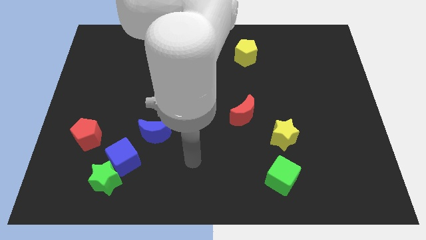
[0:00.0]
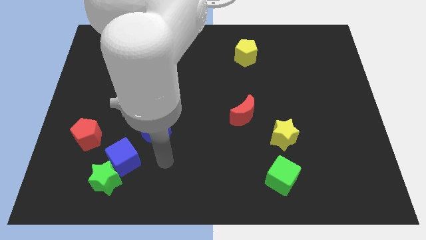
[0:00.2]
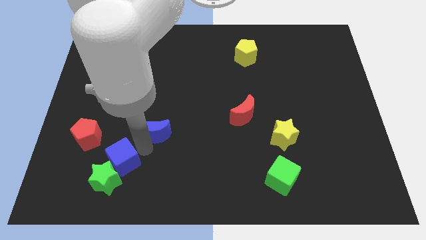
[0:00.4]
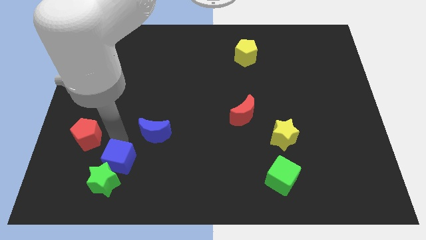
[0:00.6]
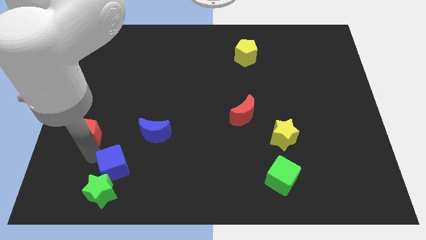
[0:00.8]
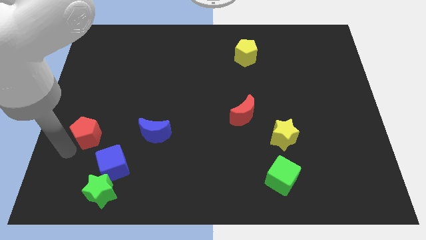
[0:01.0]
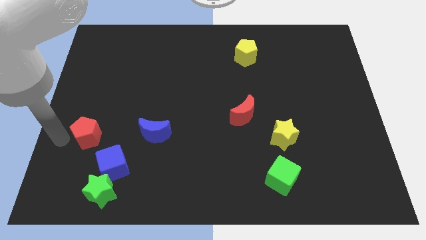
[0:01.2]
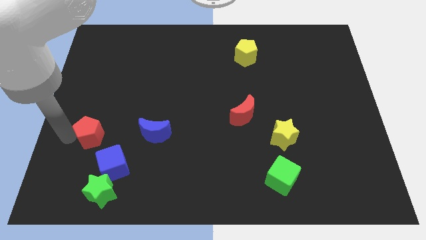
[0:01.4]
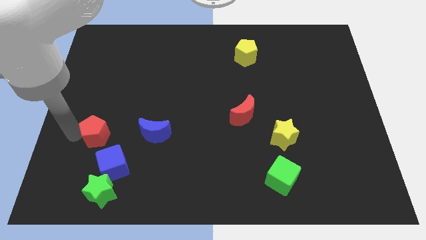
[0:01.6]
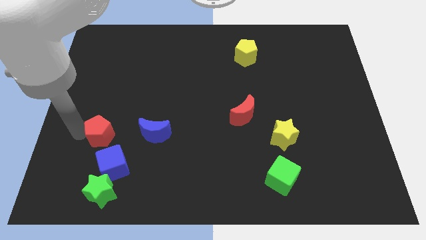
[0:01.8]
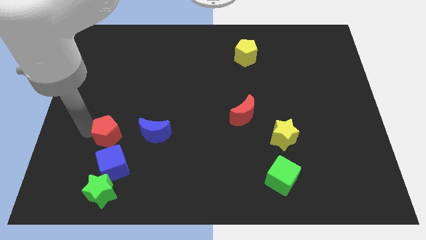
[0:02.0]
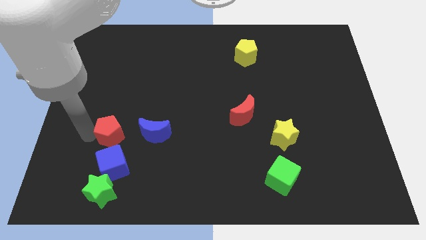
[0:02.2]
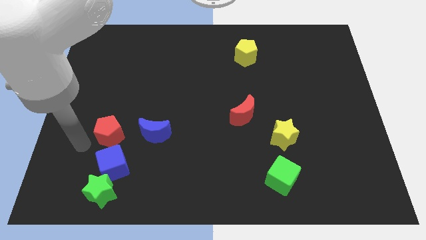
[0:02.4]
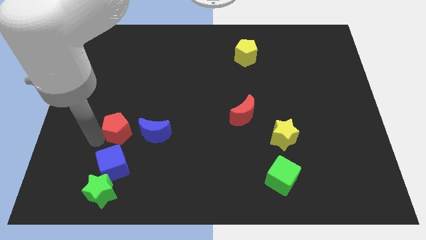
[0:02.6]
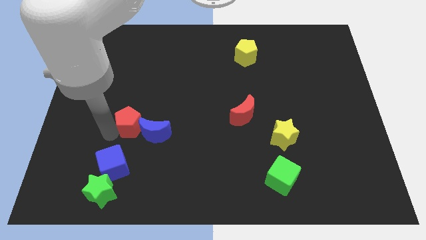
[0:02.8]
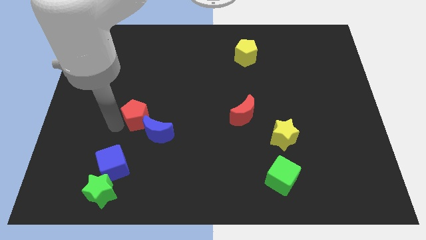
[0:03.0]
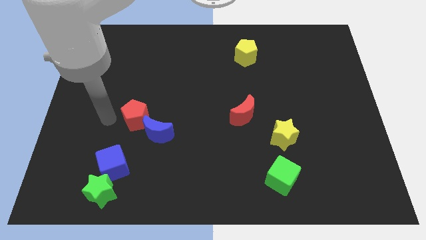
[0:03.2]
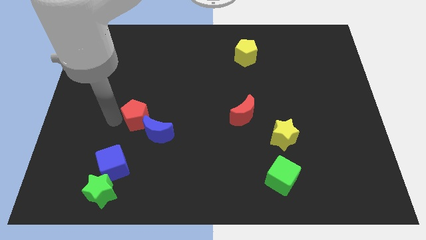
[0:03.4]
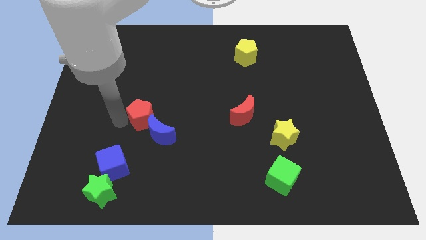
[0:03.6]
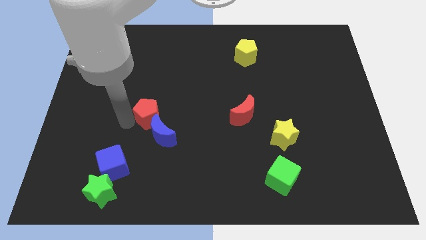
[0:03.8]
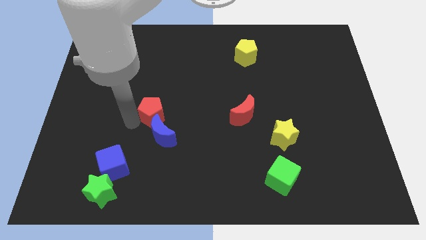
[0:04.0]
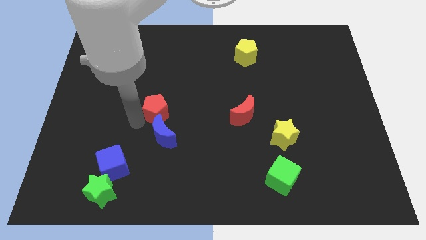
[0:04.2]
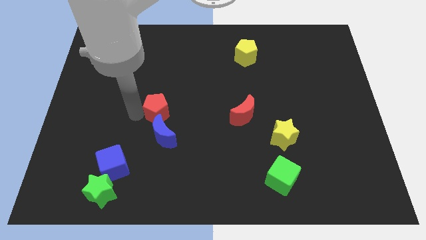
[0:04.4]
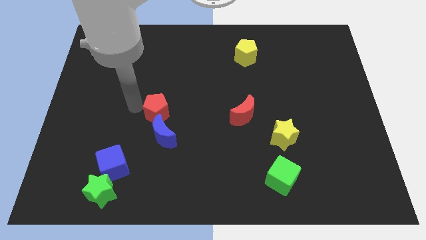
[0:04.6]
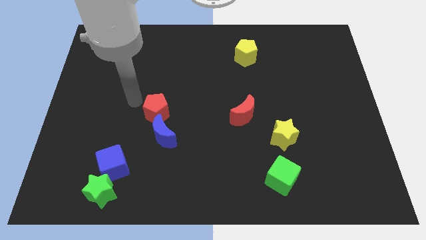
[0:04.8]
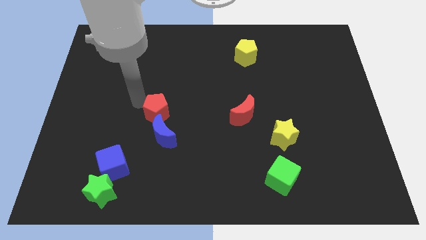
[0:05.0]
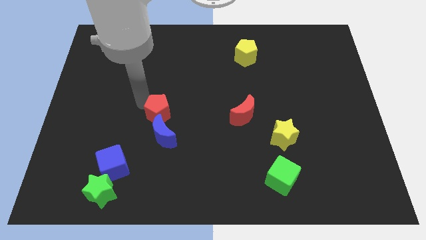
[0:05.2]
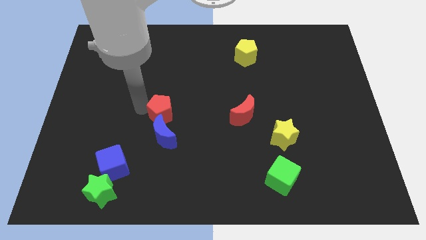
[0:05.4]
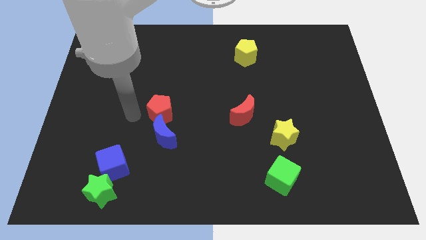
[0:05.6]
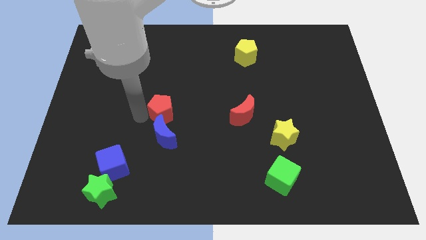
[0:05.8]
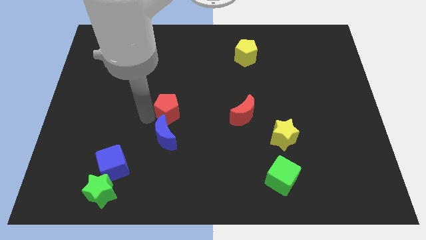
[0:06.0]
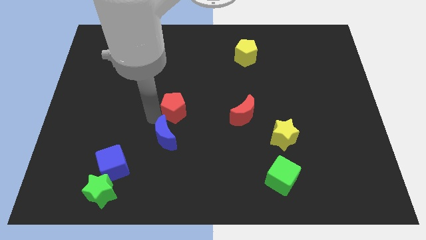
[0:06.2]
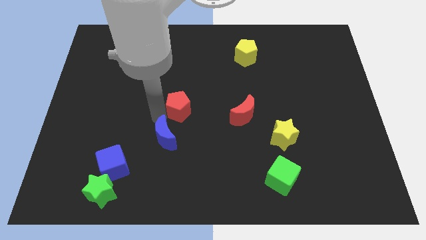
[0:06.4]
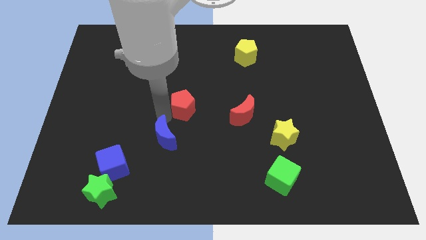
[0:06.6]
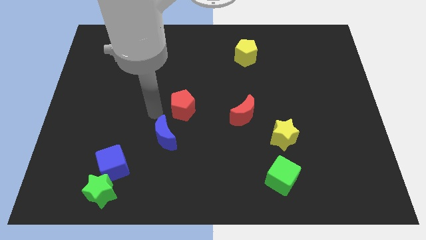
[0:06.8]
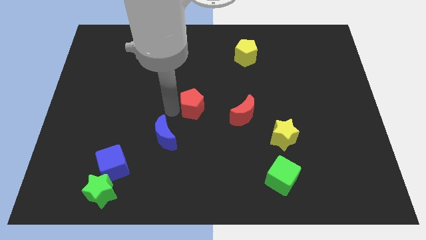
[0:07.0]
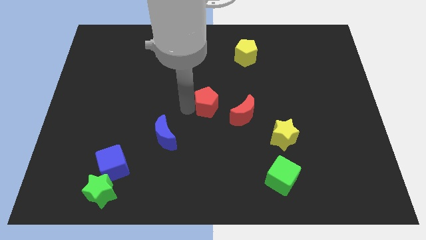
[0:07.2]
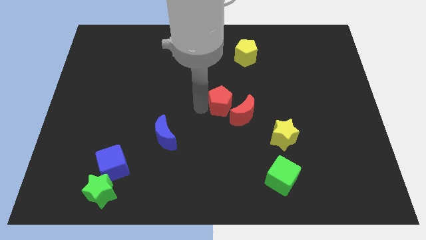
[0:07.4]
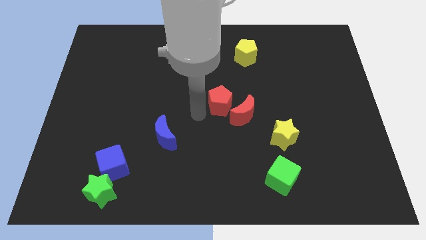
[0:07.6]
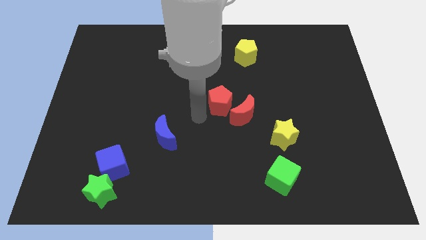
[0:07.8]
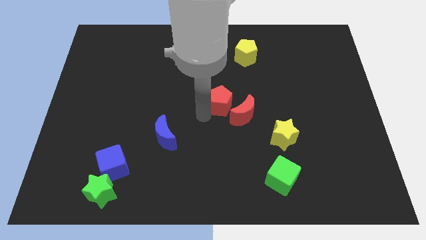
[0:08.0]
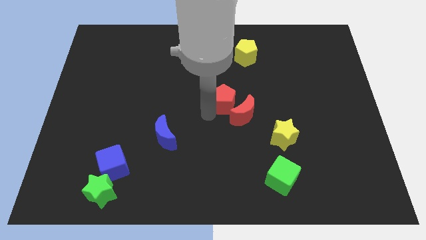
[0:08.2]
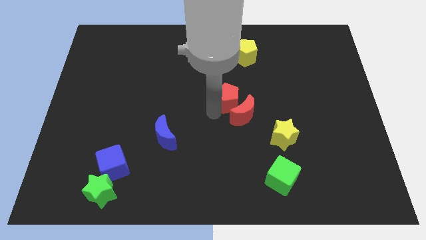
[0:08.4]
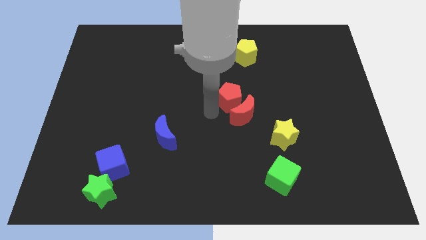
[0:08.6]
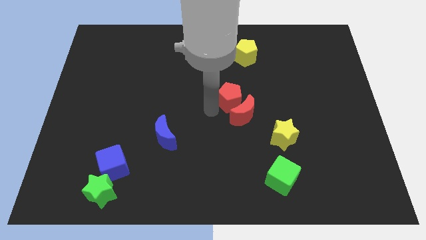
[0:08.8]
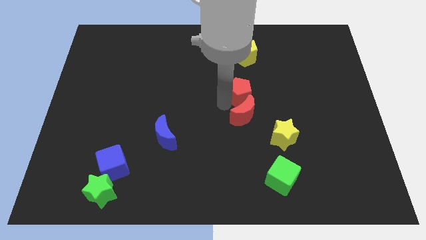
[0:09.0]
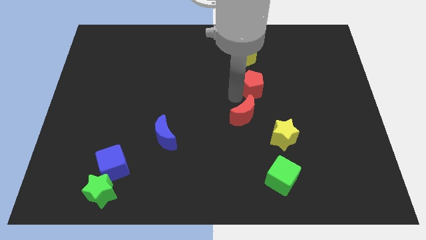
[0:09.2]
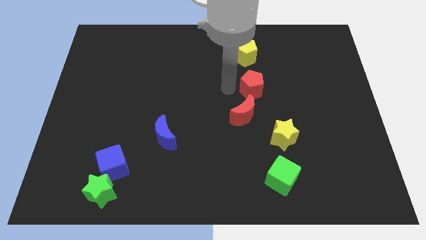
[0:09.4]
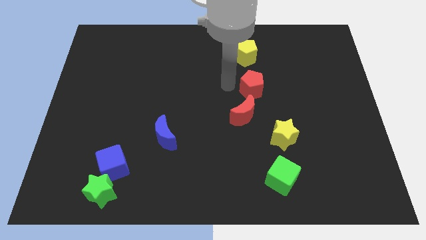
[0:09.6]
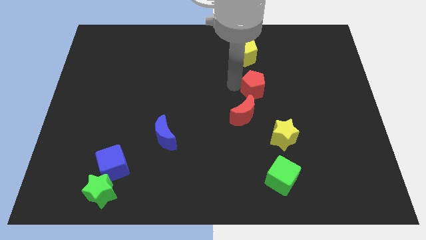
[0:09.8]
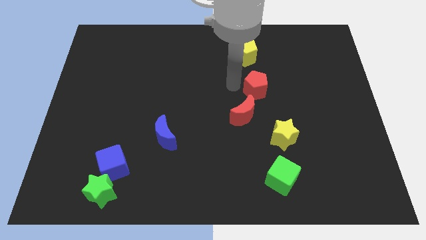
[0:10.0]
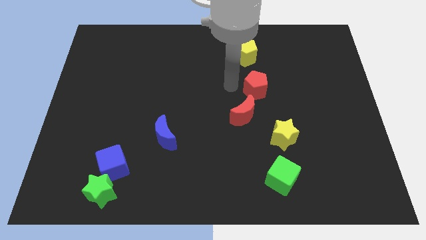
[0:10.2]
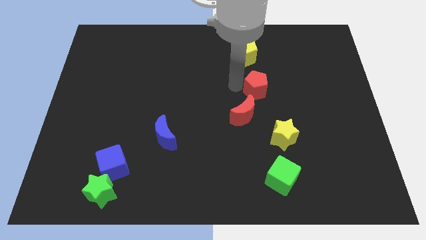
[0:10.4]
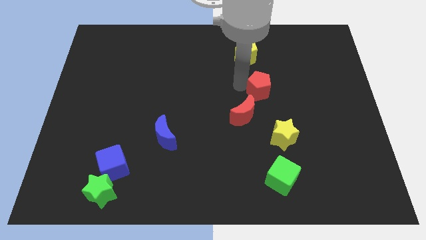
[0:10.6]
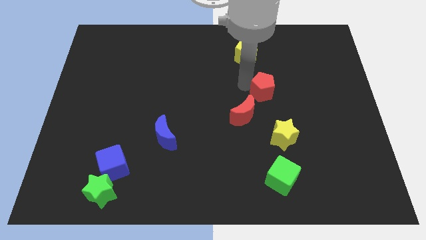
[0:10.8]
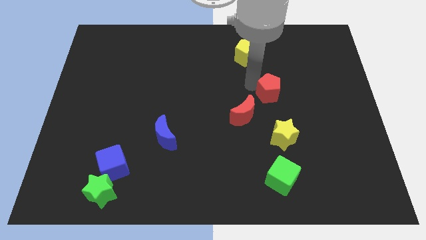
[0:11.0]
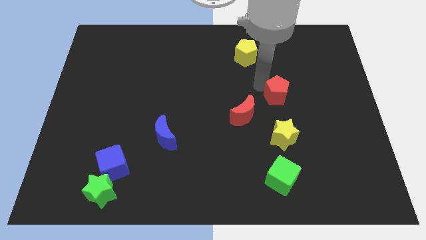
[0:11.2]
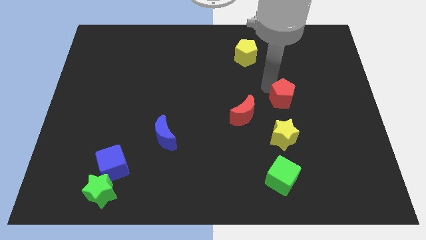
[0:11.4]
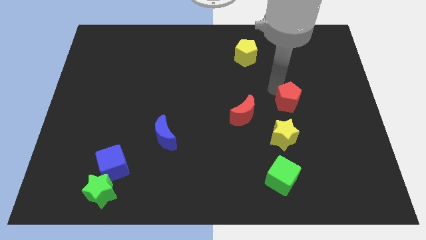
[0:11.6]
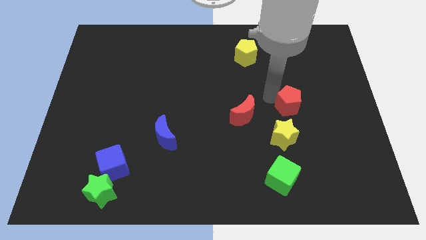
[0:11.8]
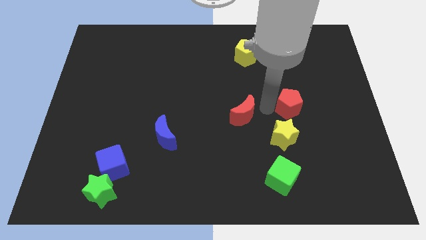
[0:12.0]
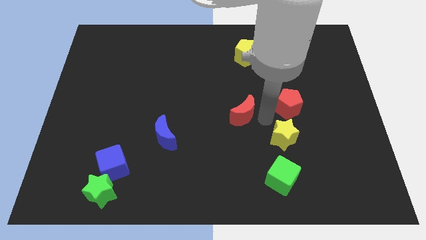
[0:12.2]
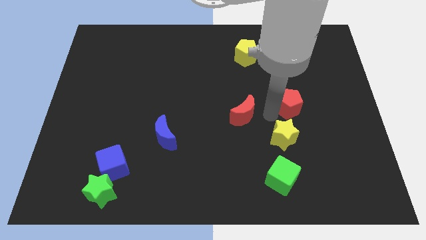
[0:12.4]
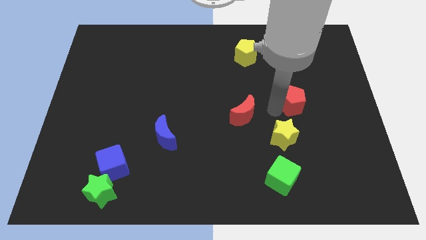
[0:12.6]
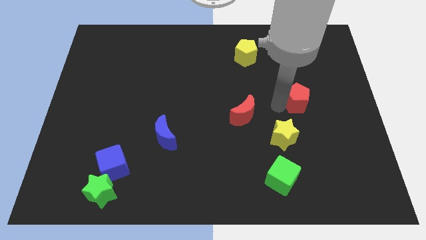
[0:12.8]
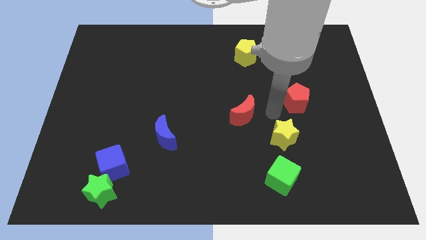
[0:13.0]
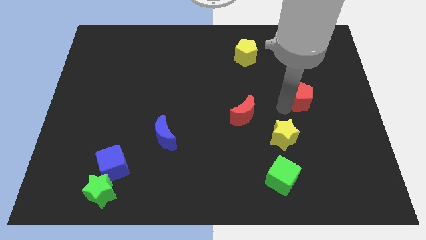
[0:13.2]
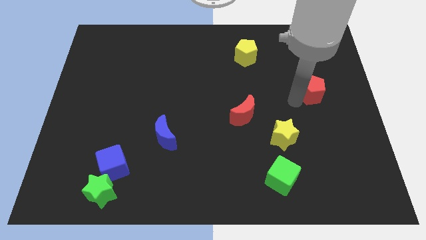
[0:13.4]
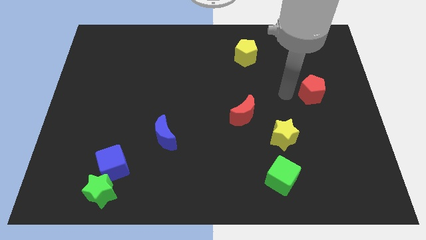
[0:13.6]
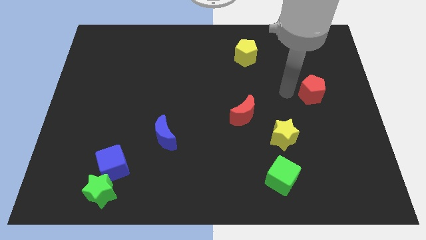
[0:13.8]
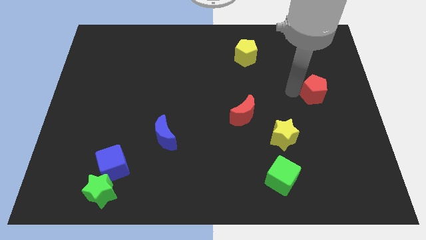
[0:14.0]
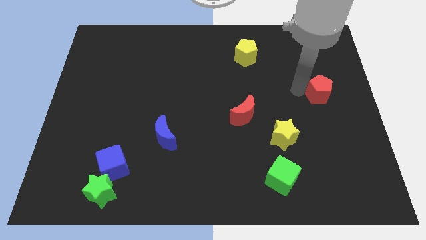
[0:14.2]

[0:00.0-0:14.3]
push the red pentagon to the center right
